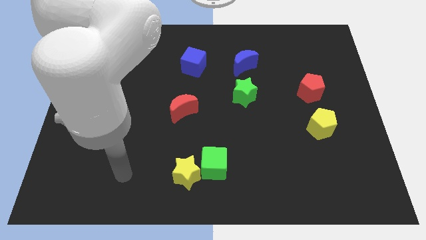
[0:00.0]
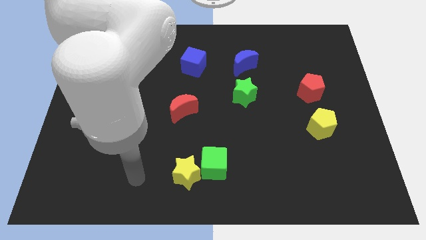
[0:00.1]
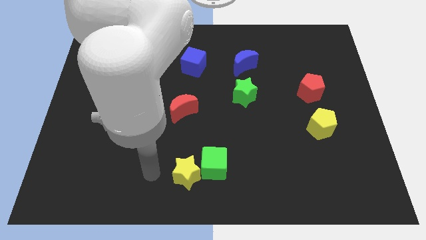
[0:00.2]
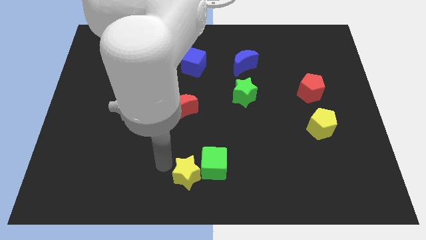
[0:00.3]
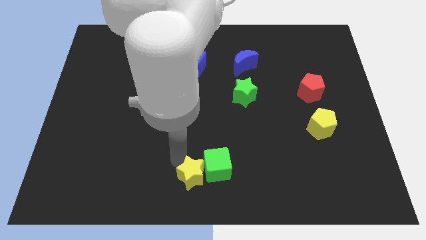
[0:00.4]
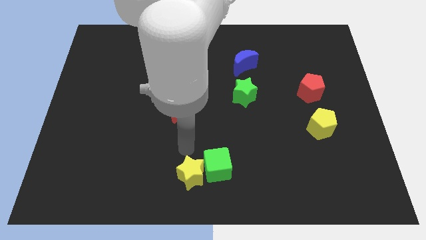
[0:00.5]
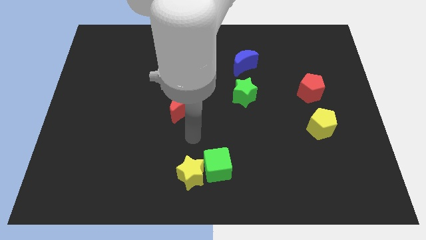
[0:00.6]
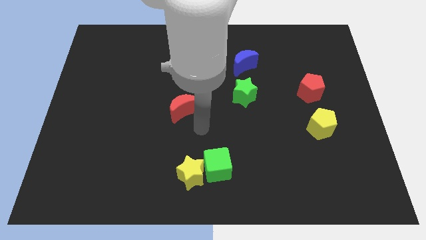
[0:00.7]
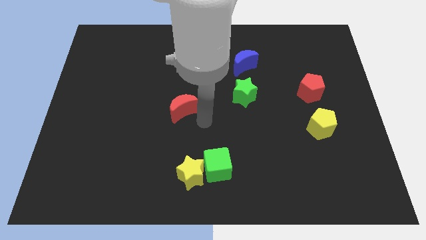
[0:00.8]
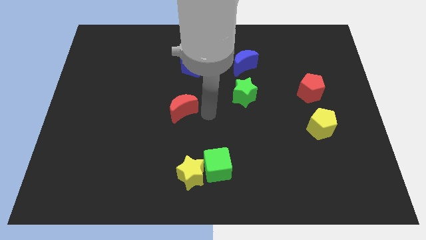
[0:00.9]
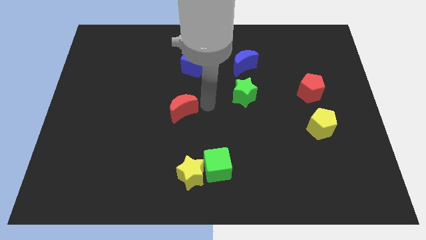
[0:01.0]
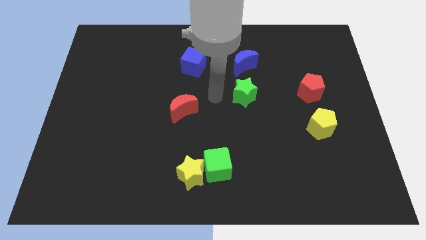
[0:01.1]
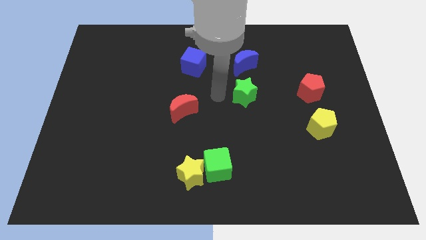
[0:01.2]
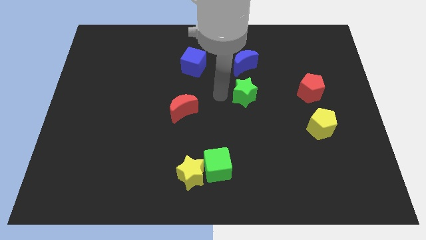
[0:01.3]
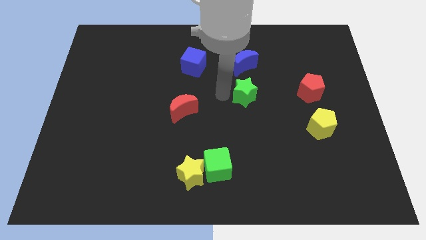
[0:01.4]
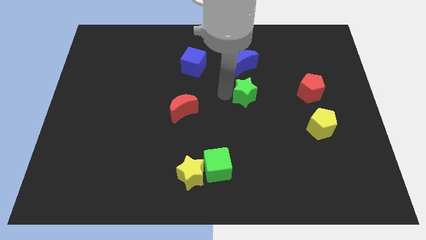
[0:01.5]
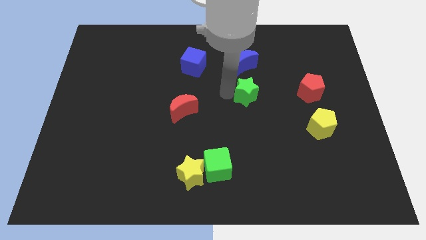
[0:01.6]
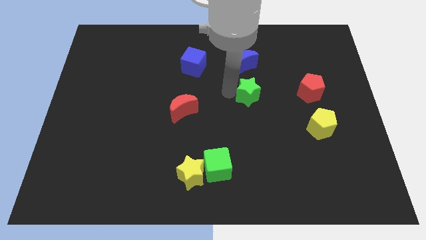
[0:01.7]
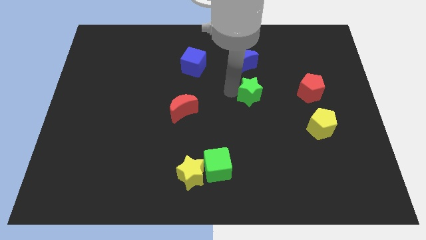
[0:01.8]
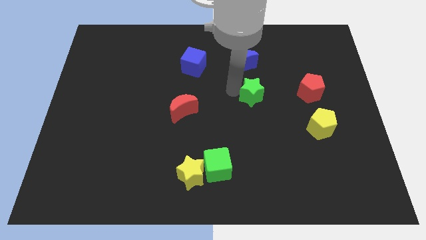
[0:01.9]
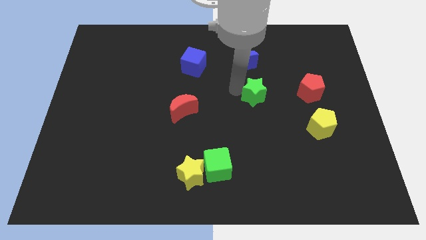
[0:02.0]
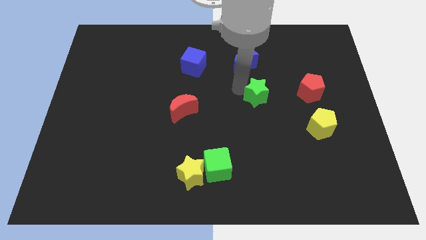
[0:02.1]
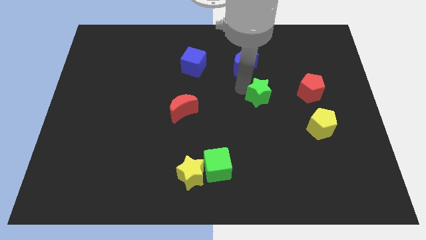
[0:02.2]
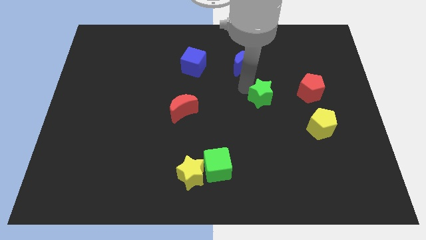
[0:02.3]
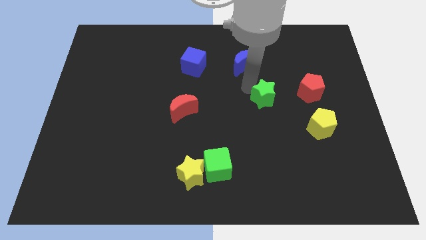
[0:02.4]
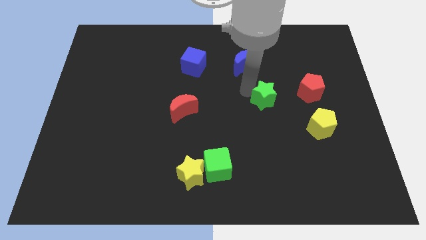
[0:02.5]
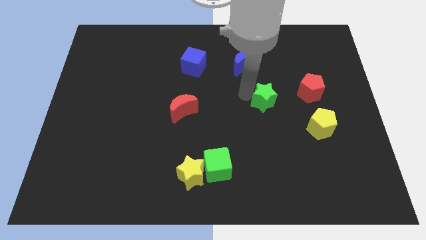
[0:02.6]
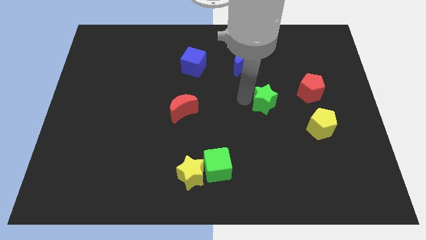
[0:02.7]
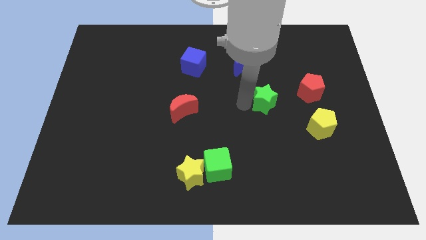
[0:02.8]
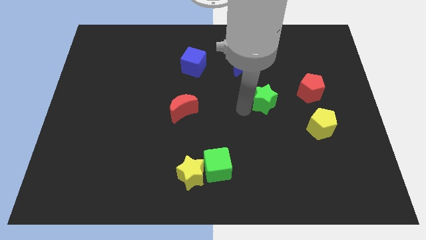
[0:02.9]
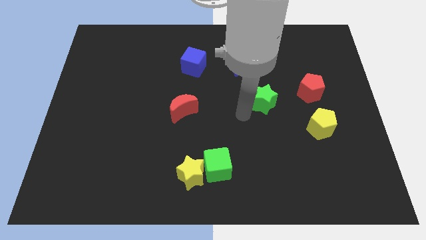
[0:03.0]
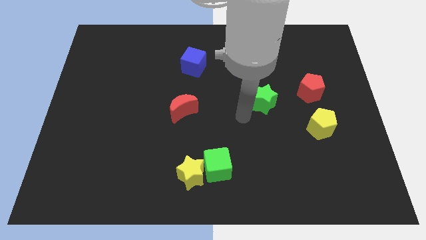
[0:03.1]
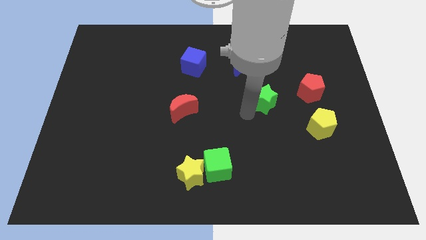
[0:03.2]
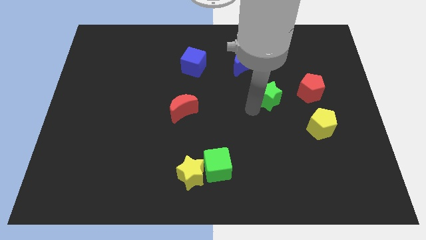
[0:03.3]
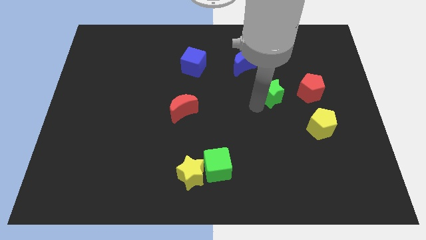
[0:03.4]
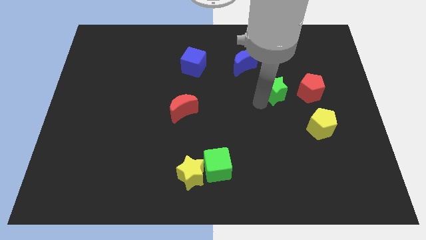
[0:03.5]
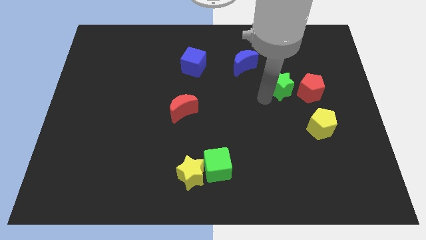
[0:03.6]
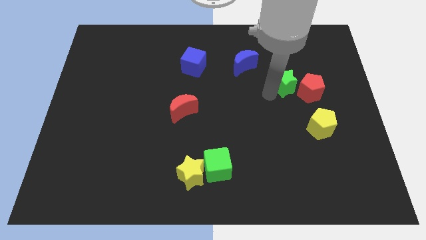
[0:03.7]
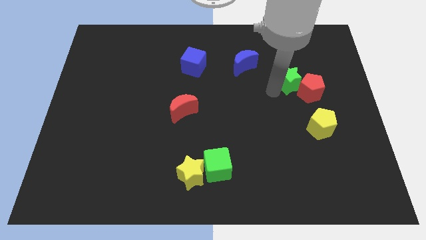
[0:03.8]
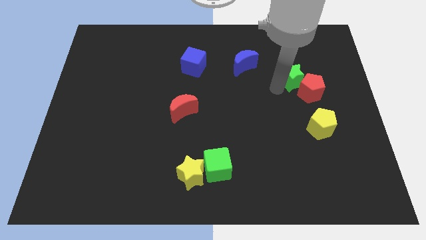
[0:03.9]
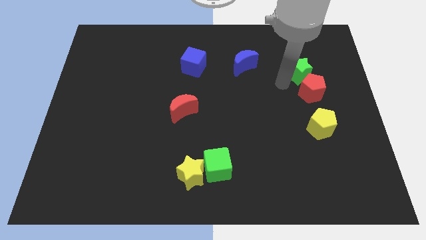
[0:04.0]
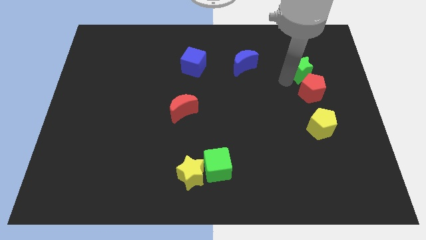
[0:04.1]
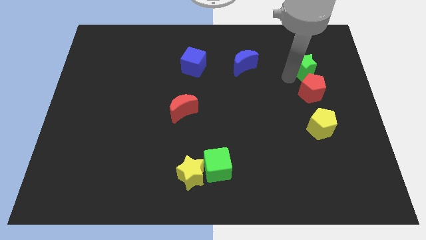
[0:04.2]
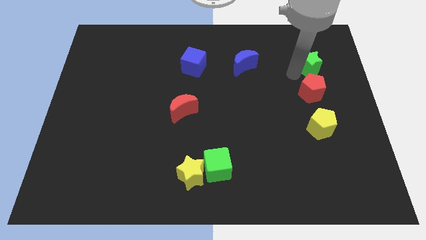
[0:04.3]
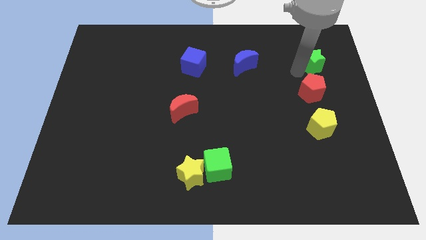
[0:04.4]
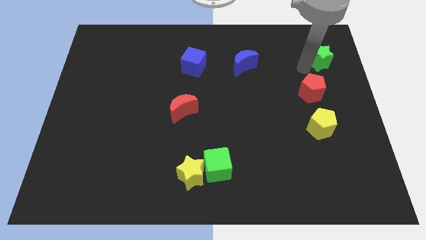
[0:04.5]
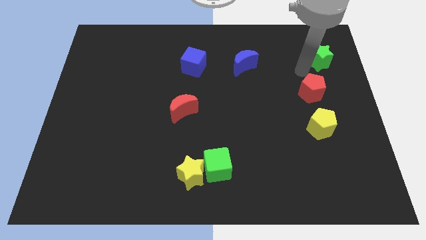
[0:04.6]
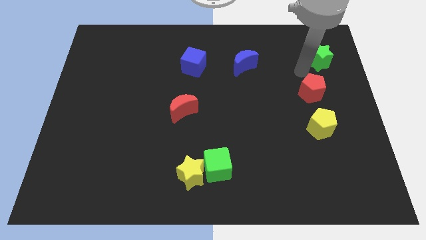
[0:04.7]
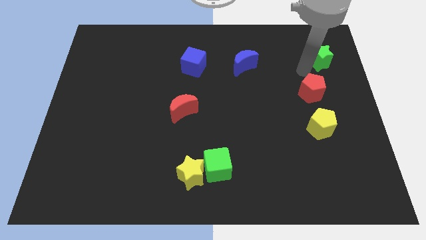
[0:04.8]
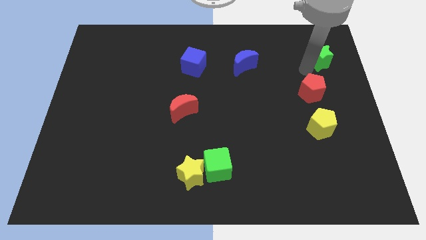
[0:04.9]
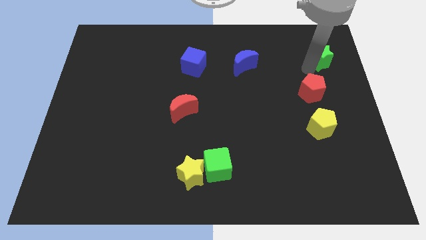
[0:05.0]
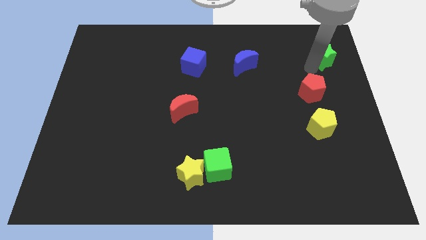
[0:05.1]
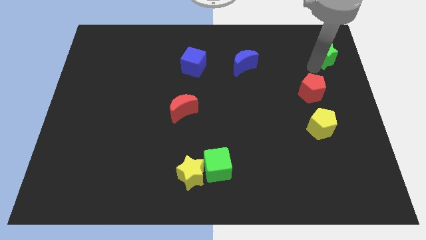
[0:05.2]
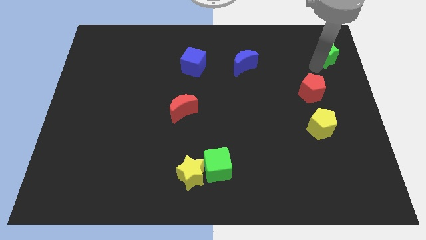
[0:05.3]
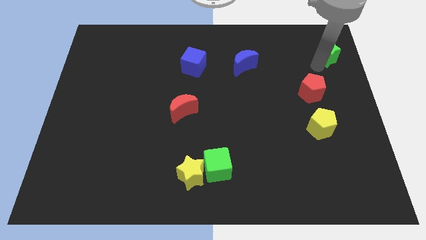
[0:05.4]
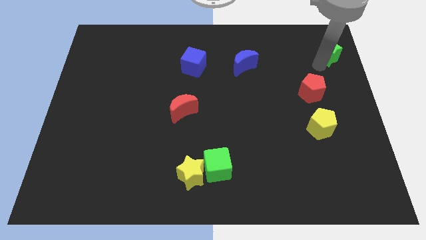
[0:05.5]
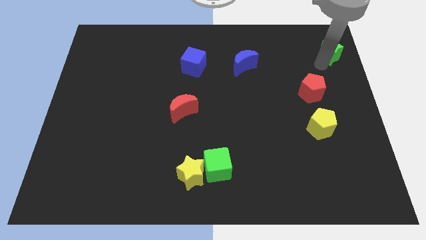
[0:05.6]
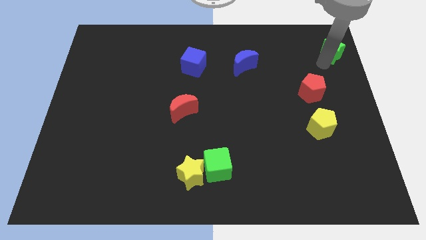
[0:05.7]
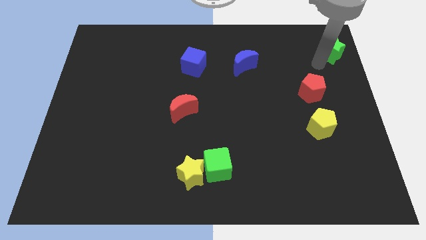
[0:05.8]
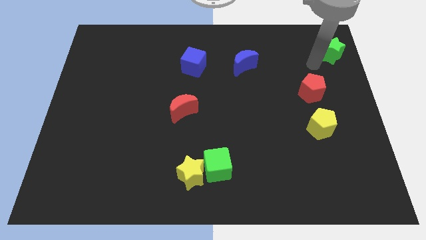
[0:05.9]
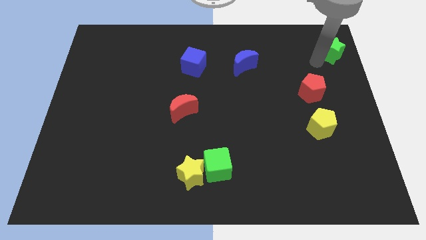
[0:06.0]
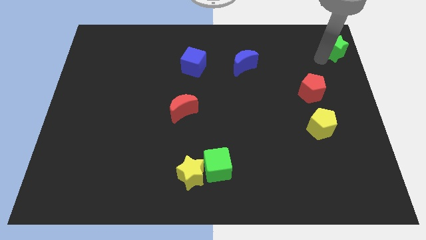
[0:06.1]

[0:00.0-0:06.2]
put the green star to the top right corner
